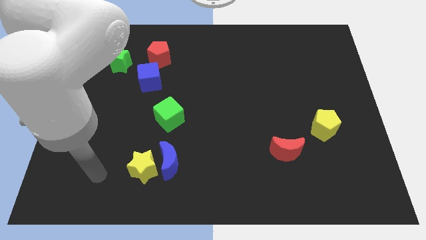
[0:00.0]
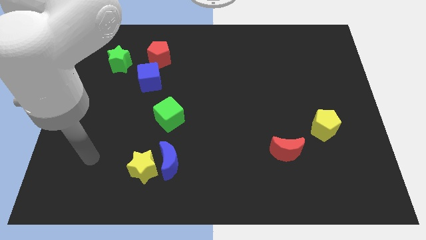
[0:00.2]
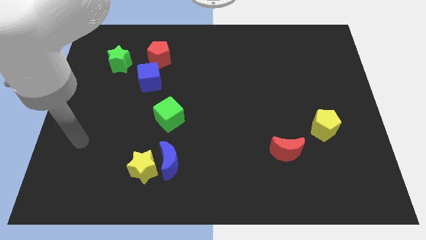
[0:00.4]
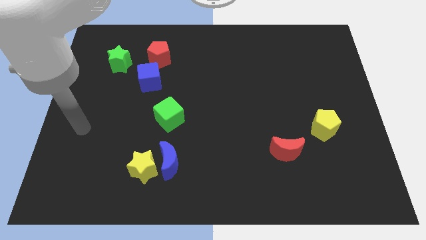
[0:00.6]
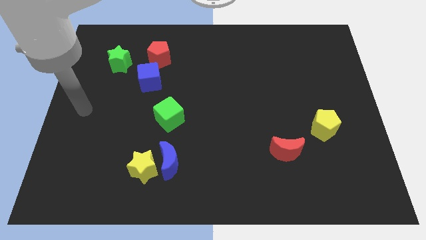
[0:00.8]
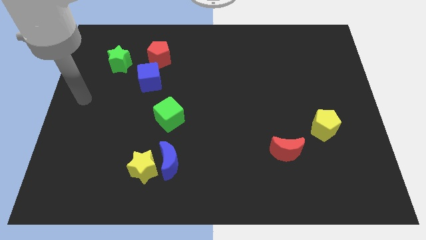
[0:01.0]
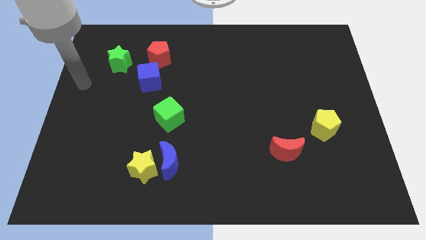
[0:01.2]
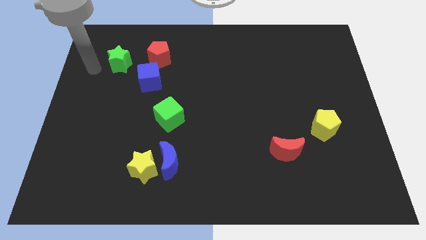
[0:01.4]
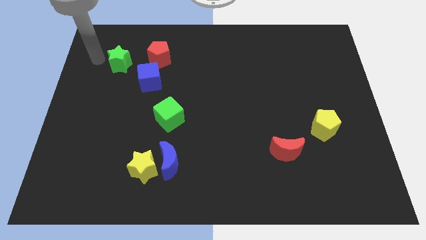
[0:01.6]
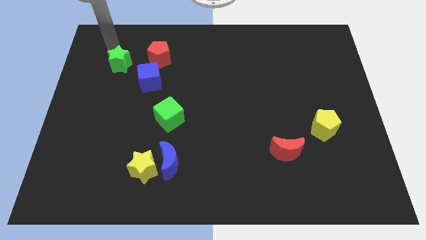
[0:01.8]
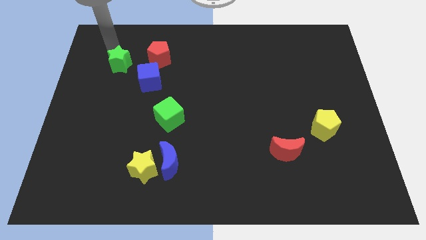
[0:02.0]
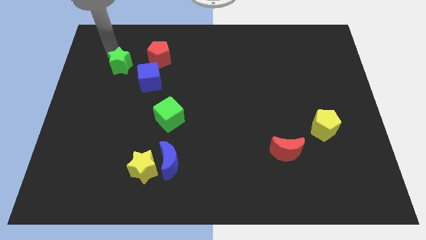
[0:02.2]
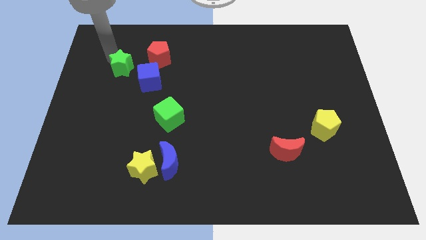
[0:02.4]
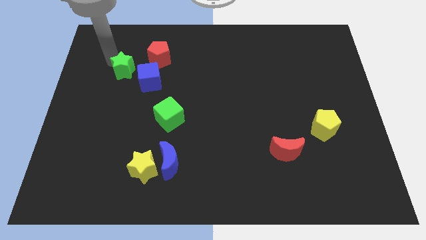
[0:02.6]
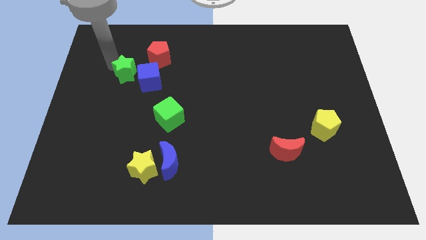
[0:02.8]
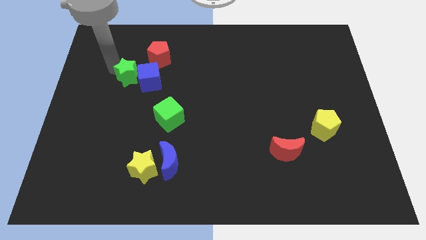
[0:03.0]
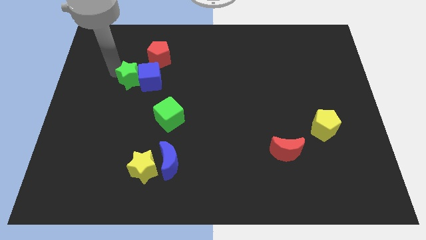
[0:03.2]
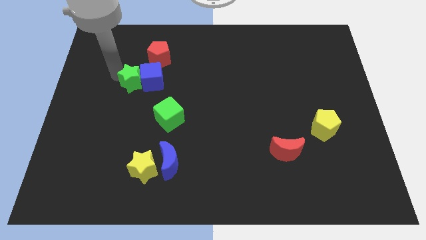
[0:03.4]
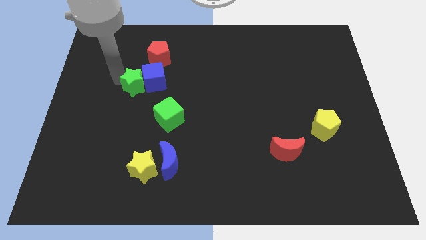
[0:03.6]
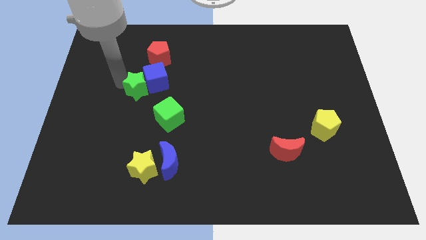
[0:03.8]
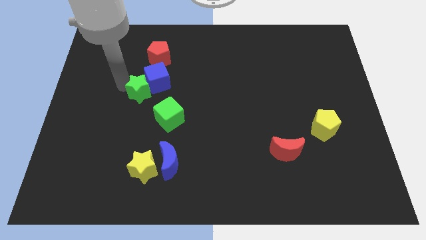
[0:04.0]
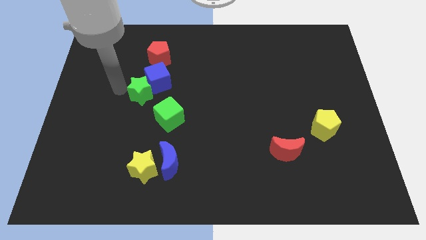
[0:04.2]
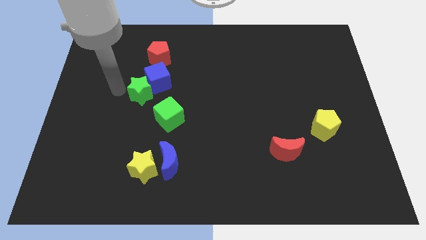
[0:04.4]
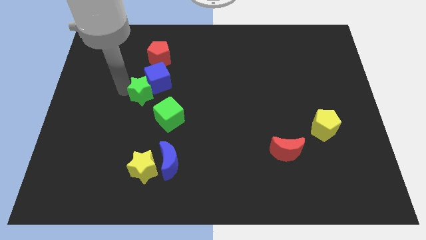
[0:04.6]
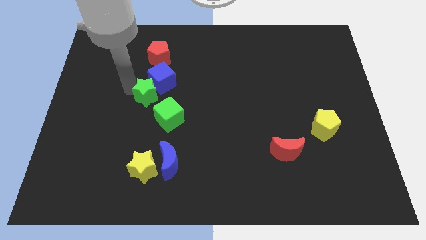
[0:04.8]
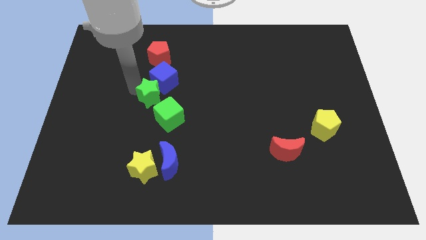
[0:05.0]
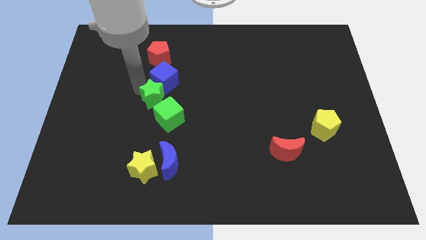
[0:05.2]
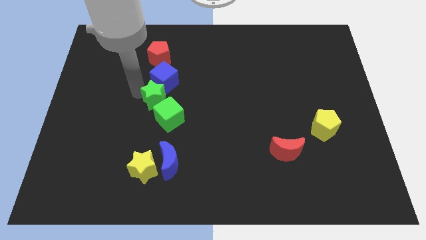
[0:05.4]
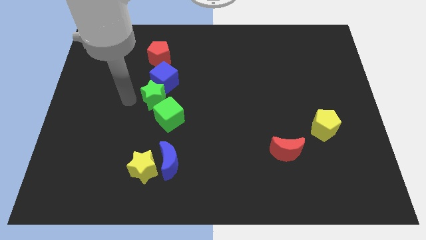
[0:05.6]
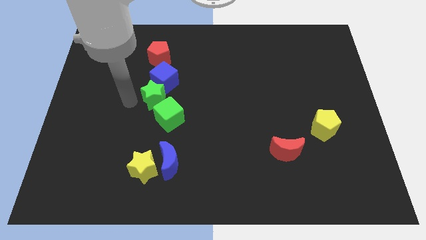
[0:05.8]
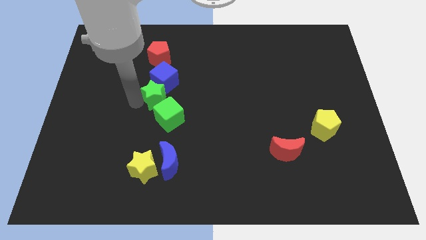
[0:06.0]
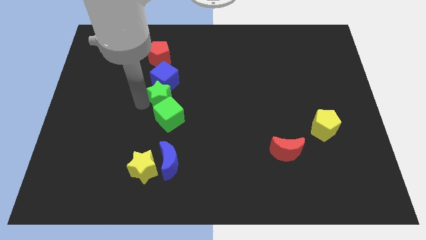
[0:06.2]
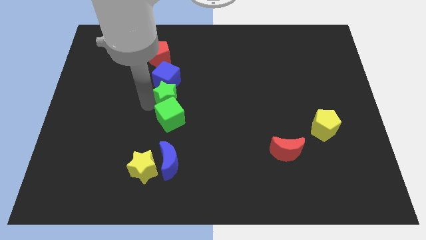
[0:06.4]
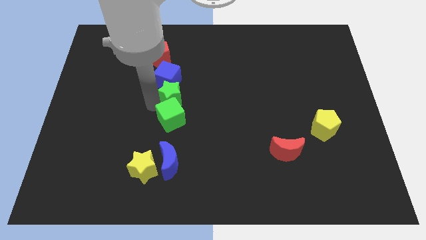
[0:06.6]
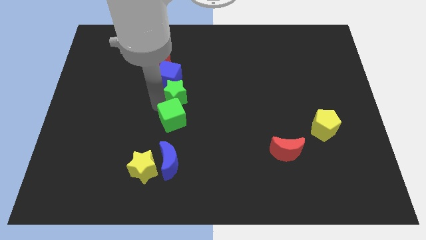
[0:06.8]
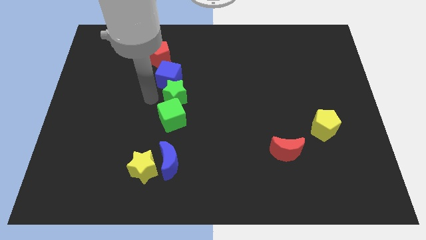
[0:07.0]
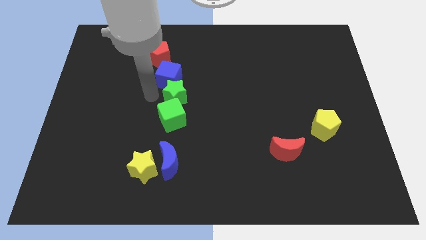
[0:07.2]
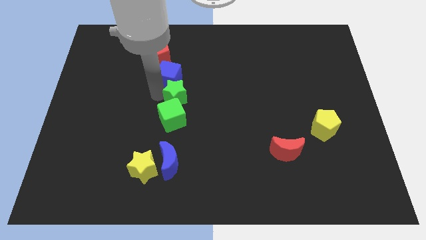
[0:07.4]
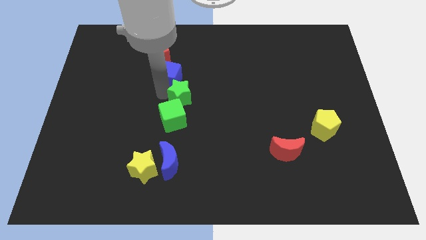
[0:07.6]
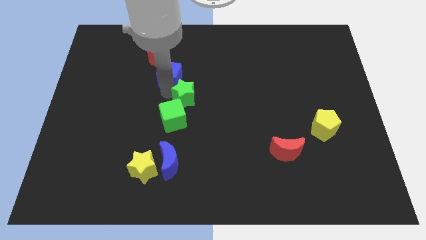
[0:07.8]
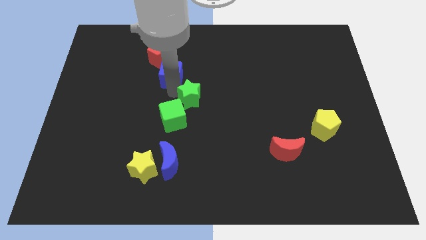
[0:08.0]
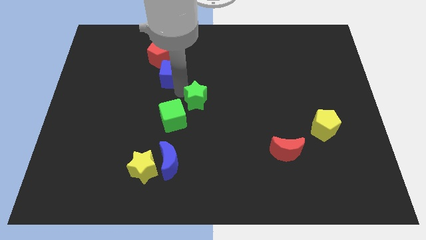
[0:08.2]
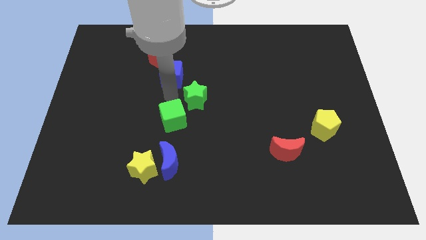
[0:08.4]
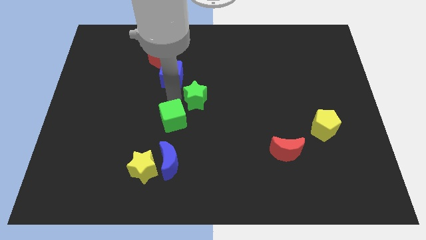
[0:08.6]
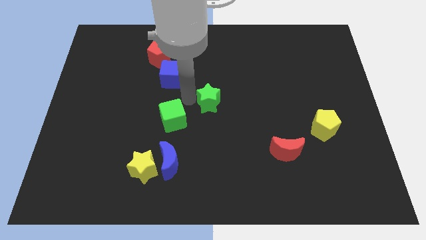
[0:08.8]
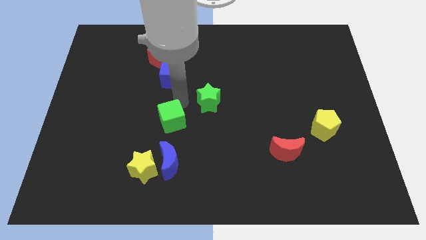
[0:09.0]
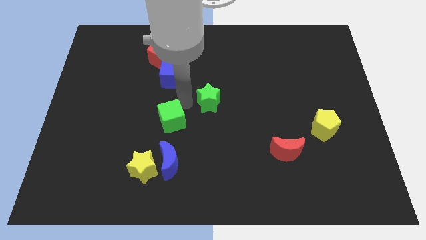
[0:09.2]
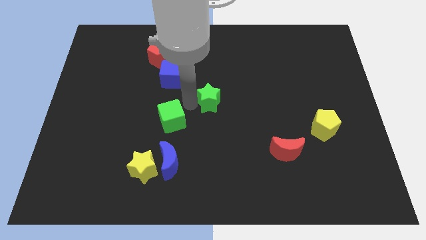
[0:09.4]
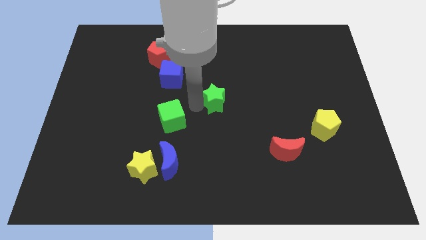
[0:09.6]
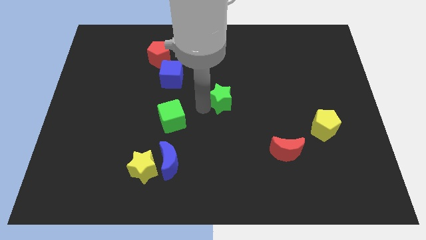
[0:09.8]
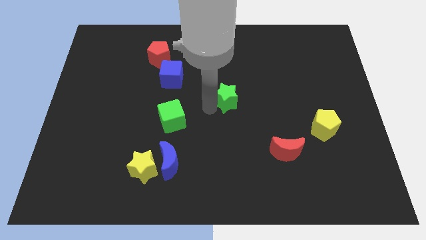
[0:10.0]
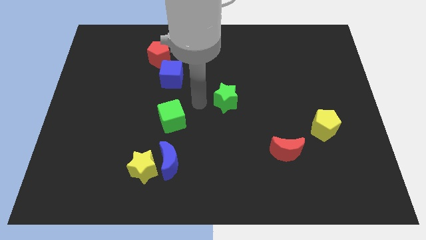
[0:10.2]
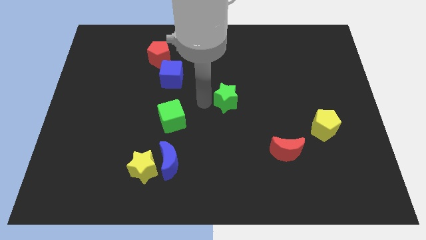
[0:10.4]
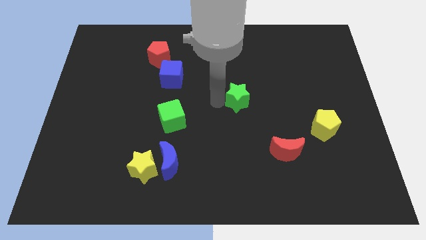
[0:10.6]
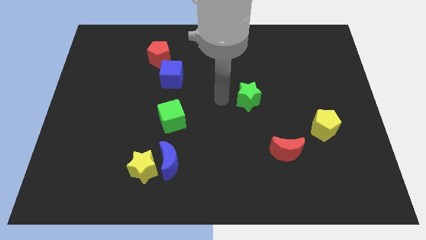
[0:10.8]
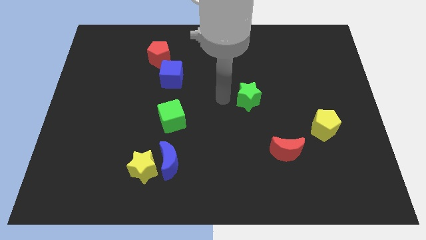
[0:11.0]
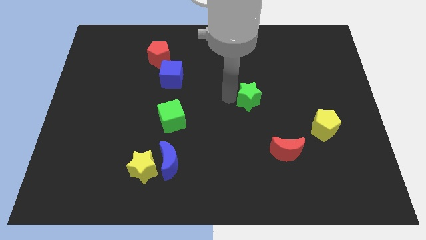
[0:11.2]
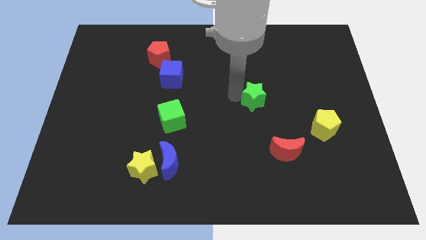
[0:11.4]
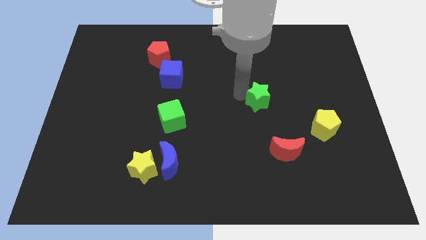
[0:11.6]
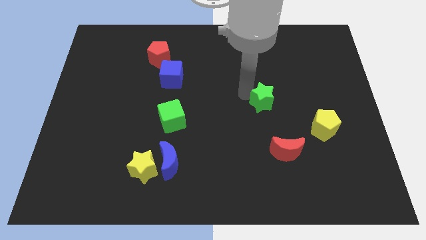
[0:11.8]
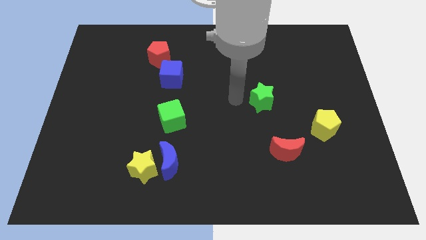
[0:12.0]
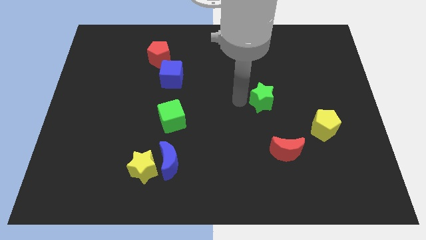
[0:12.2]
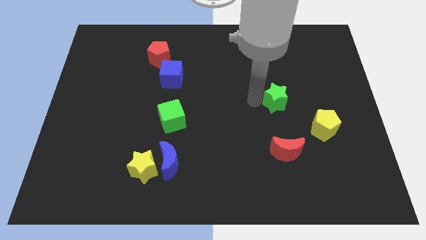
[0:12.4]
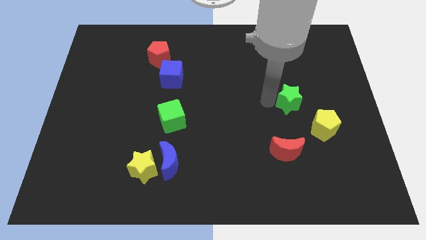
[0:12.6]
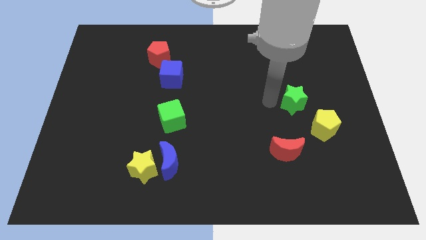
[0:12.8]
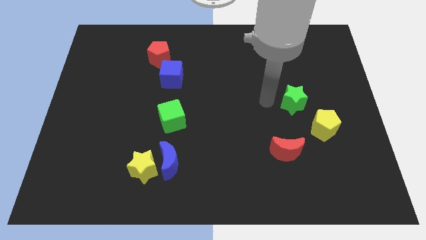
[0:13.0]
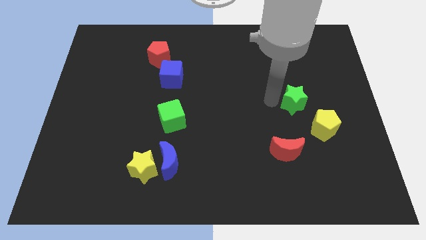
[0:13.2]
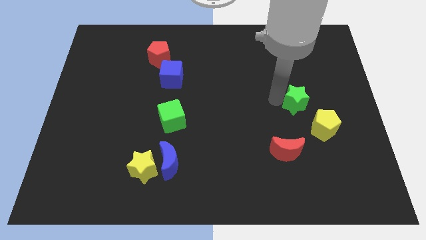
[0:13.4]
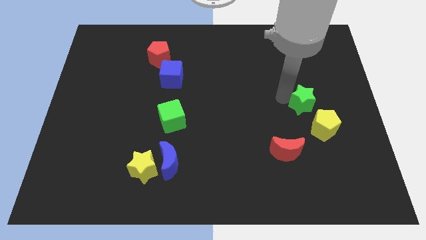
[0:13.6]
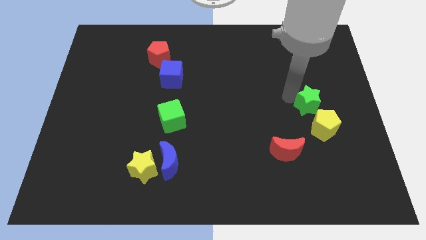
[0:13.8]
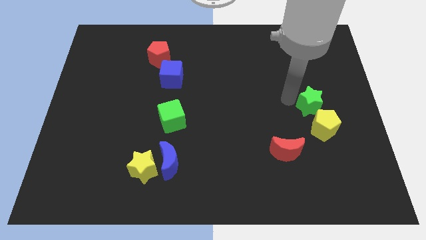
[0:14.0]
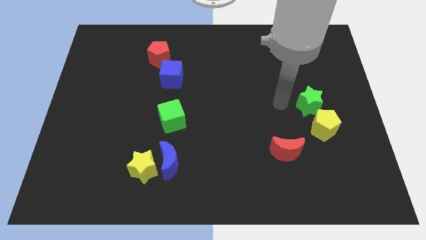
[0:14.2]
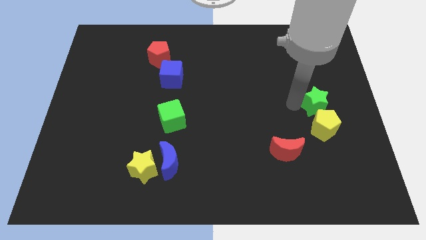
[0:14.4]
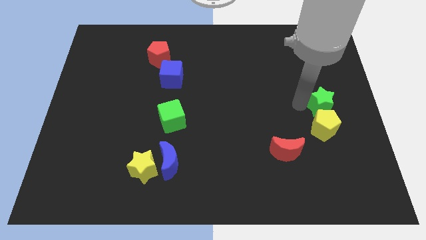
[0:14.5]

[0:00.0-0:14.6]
put the green star to the right side
